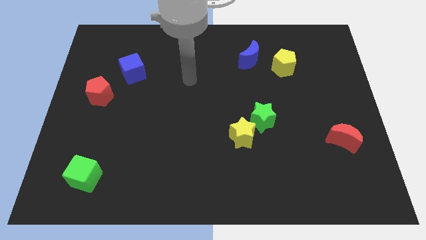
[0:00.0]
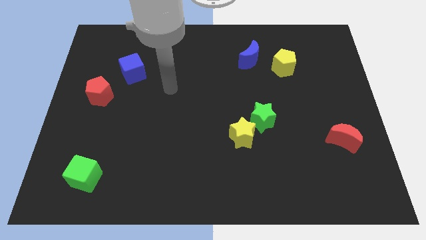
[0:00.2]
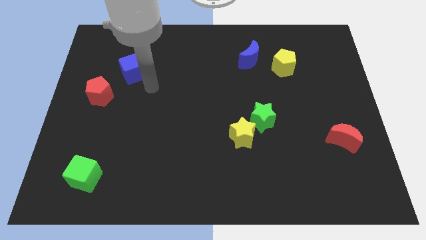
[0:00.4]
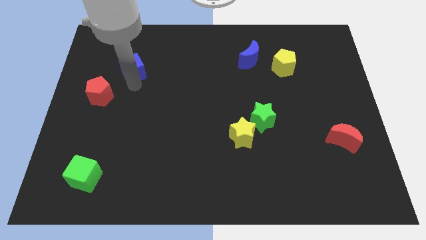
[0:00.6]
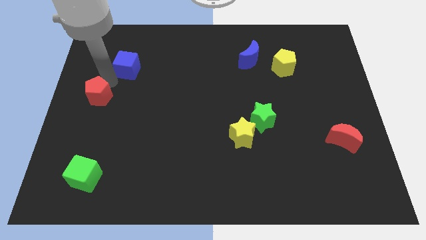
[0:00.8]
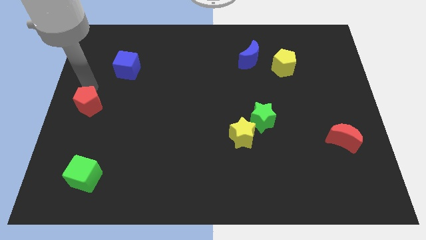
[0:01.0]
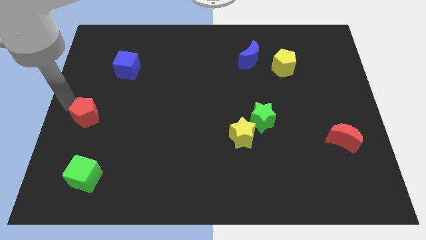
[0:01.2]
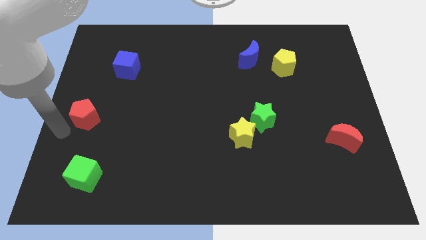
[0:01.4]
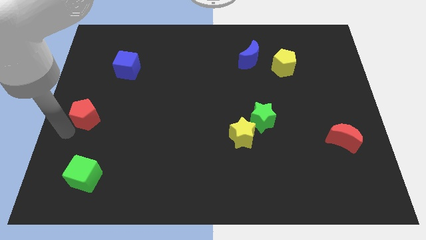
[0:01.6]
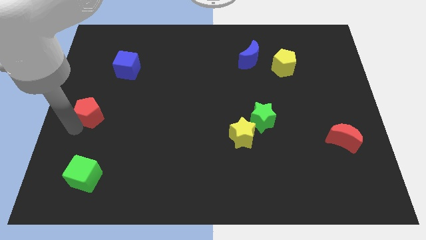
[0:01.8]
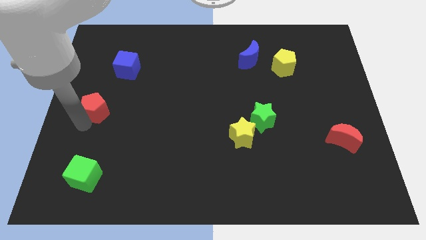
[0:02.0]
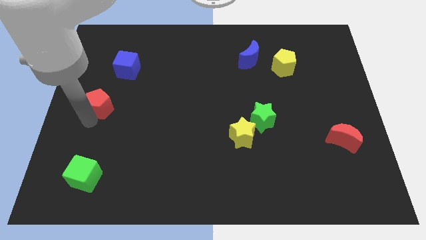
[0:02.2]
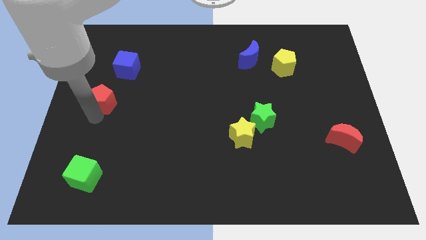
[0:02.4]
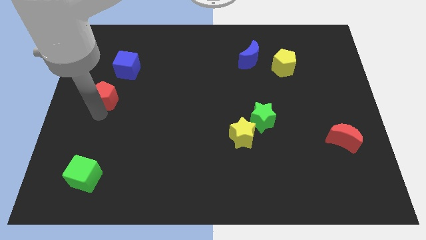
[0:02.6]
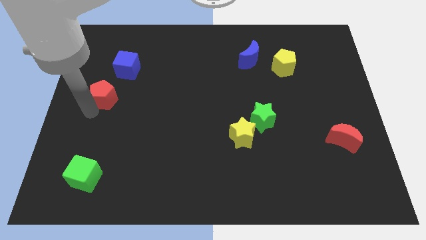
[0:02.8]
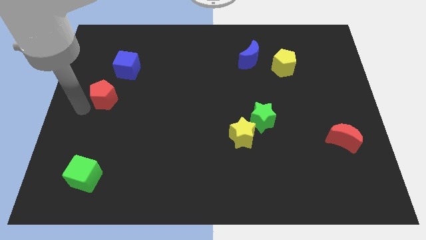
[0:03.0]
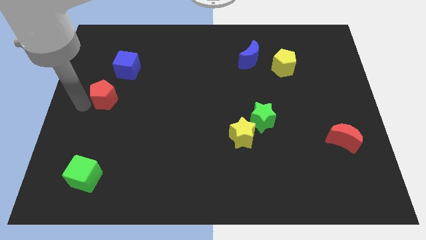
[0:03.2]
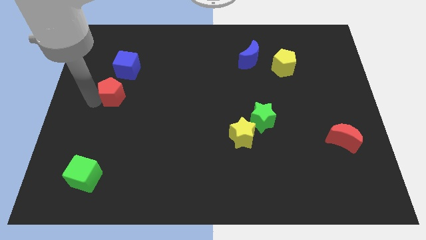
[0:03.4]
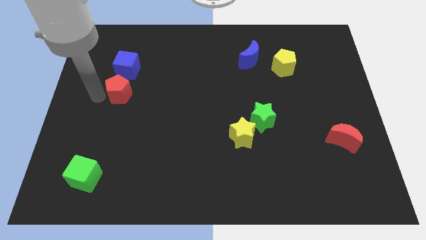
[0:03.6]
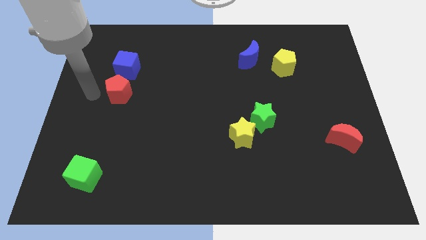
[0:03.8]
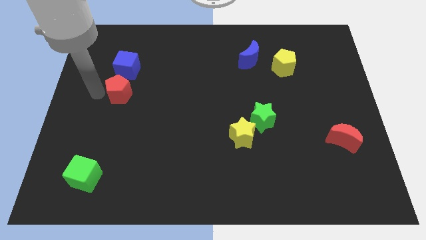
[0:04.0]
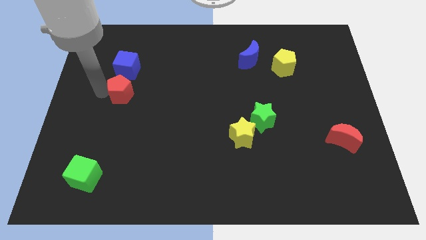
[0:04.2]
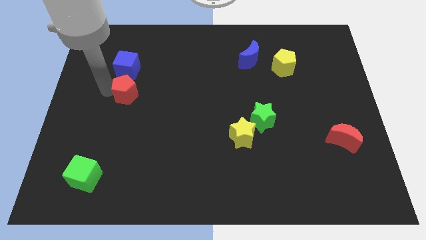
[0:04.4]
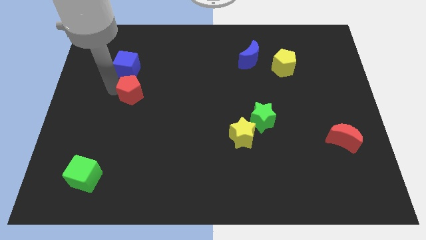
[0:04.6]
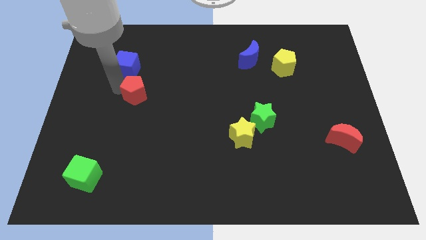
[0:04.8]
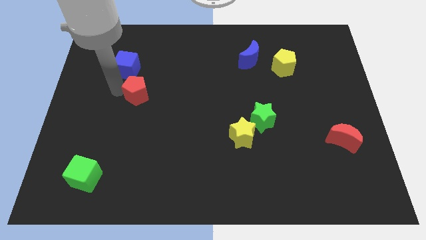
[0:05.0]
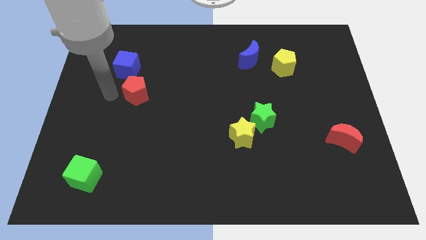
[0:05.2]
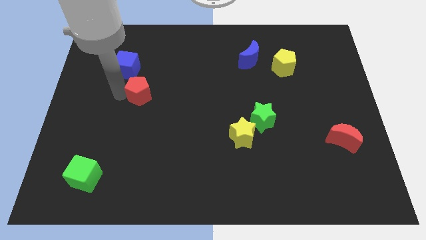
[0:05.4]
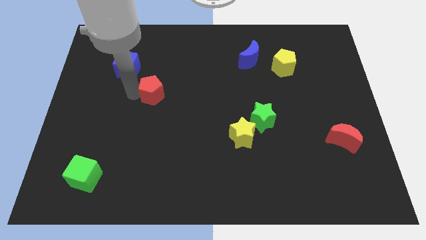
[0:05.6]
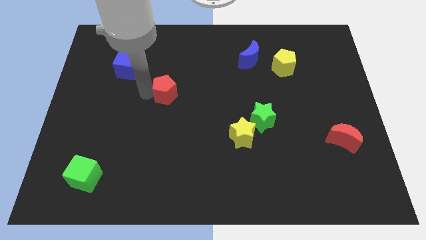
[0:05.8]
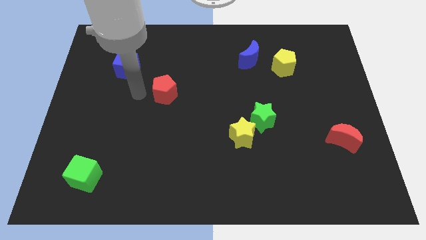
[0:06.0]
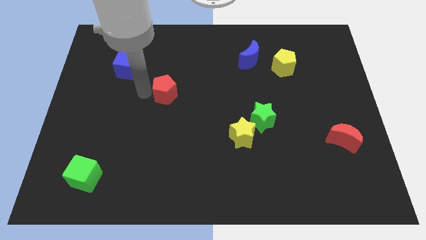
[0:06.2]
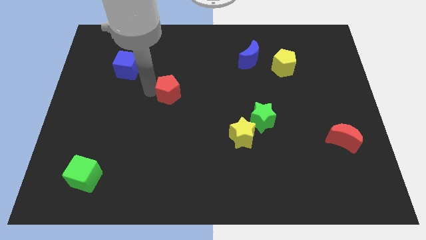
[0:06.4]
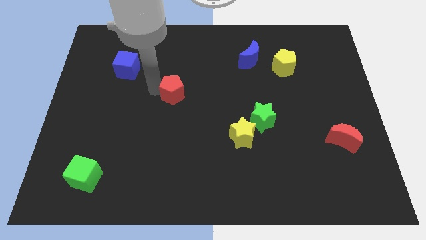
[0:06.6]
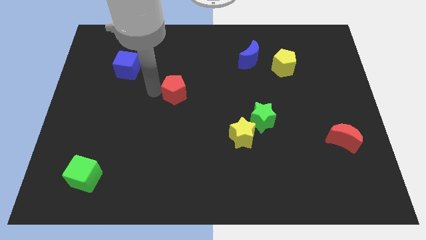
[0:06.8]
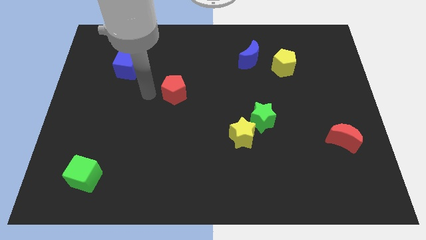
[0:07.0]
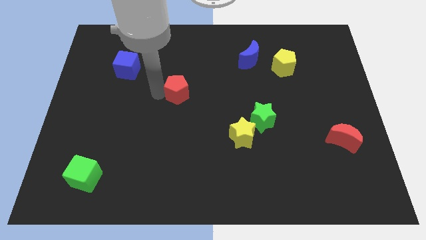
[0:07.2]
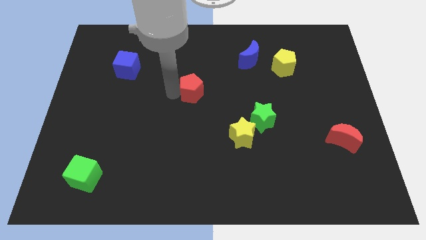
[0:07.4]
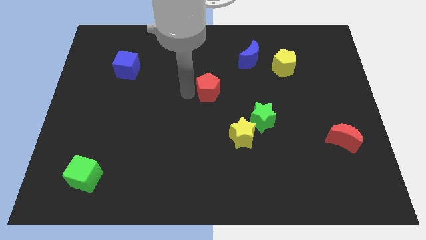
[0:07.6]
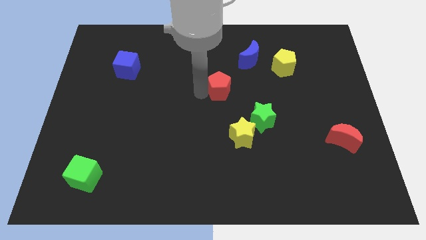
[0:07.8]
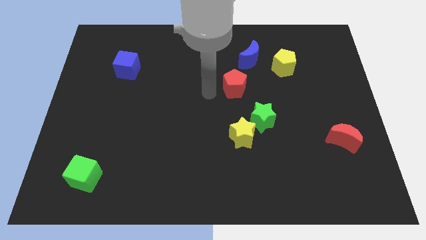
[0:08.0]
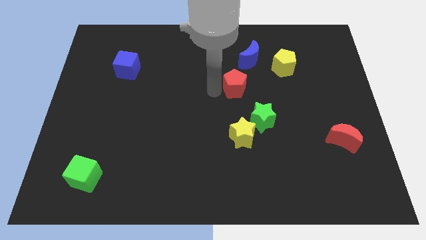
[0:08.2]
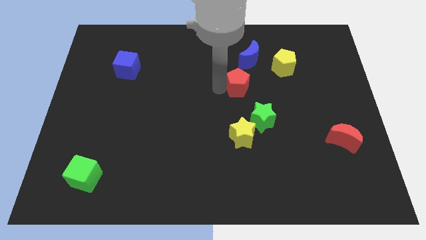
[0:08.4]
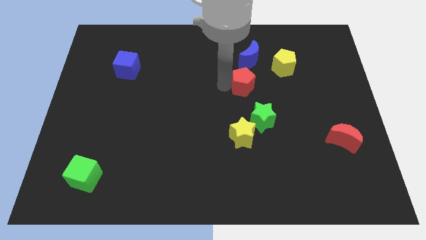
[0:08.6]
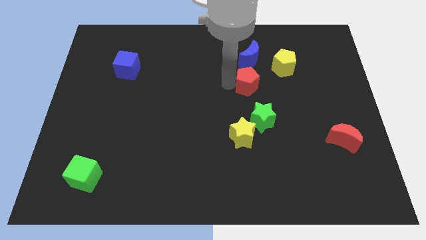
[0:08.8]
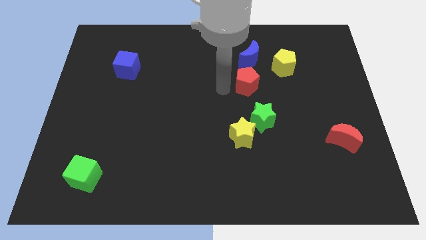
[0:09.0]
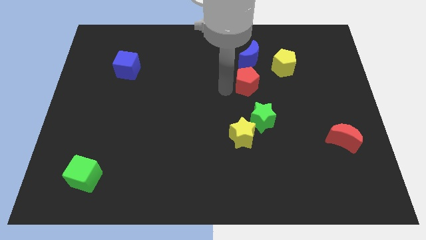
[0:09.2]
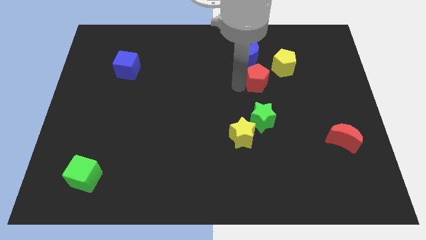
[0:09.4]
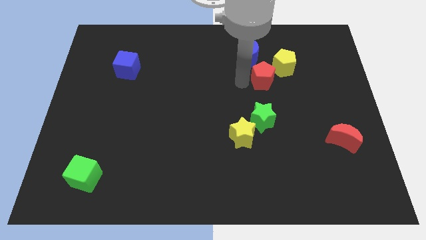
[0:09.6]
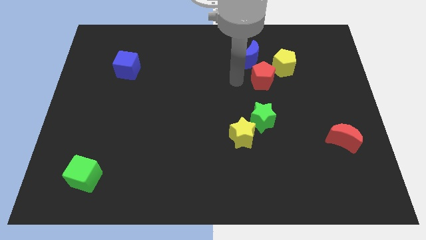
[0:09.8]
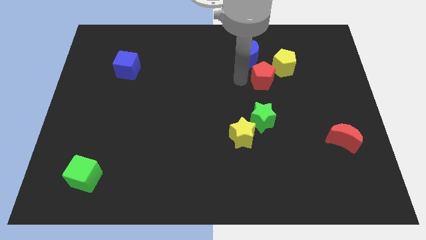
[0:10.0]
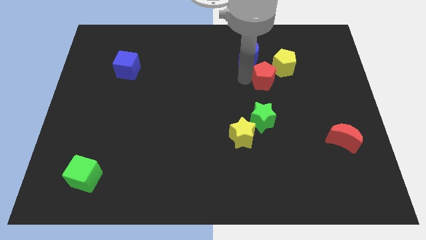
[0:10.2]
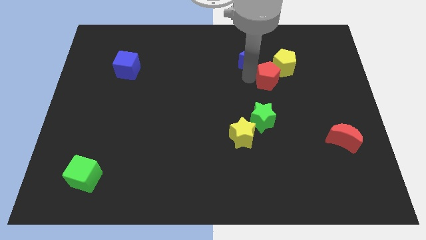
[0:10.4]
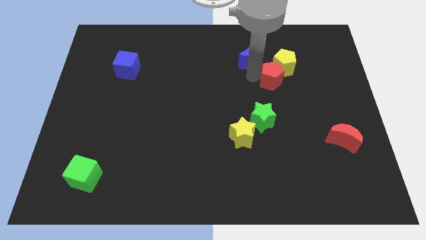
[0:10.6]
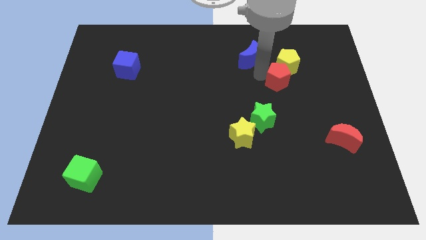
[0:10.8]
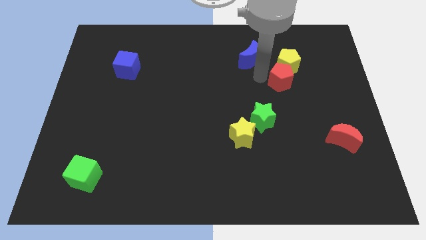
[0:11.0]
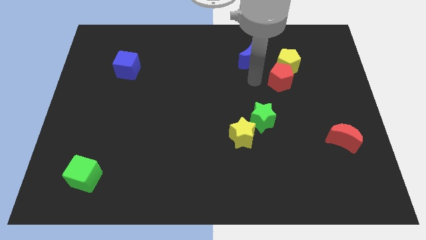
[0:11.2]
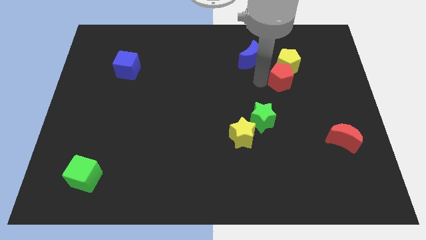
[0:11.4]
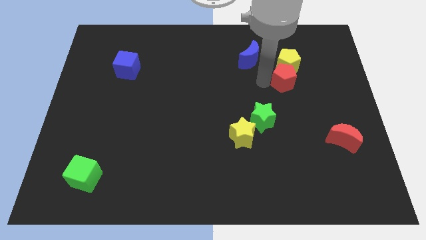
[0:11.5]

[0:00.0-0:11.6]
move the red pentagon diagonally down and to the right of the yellow pentagon

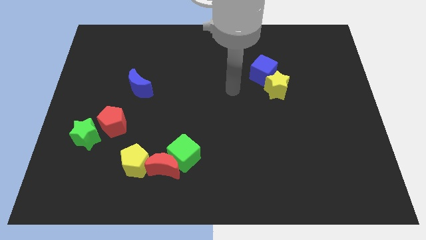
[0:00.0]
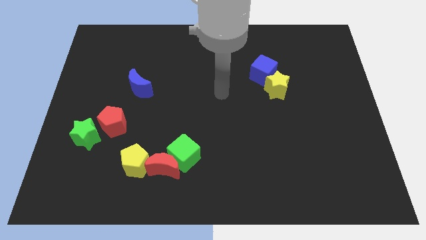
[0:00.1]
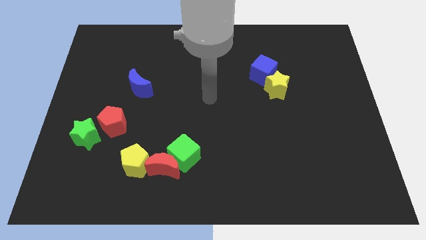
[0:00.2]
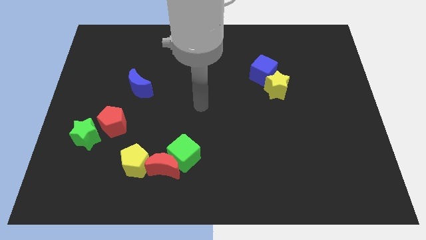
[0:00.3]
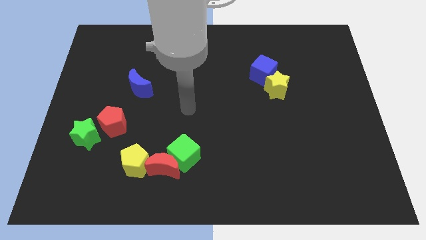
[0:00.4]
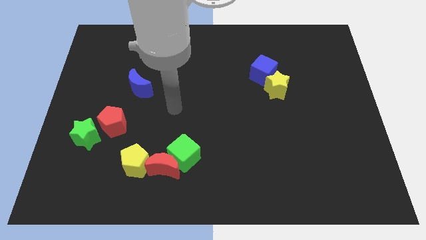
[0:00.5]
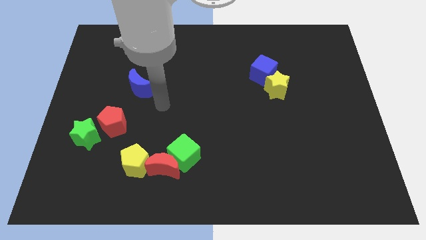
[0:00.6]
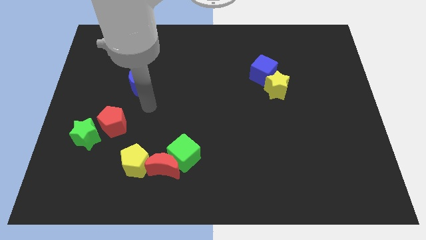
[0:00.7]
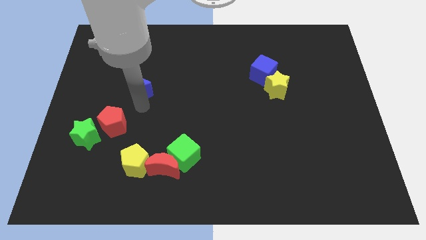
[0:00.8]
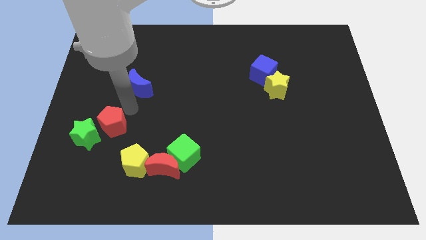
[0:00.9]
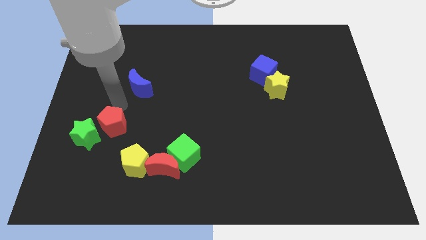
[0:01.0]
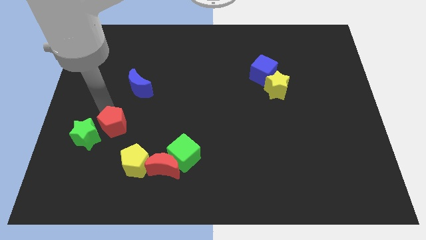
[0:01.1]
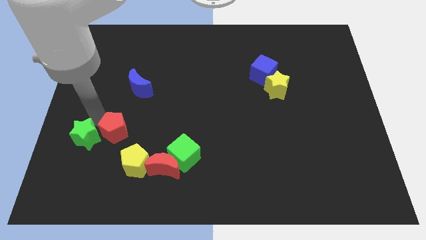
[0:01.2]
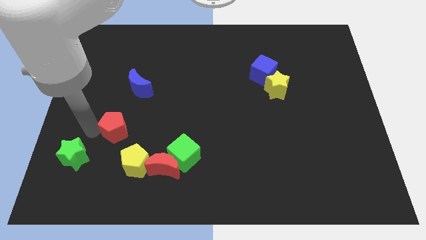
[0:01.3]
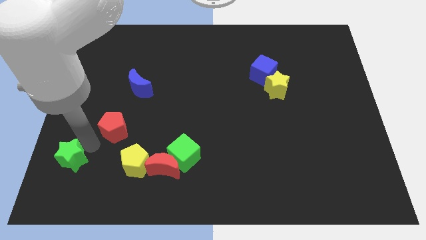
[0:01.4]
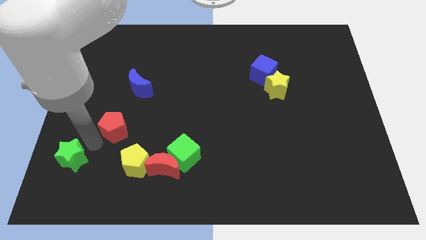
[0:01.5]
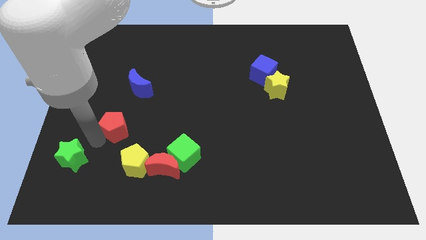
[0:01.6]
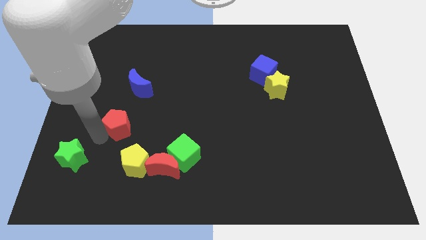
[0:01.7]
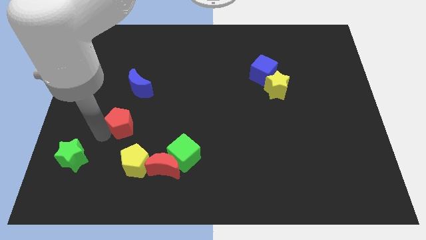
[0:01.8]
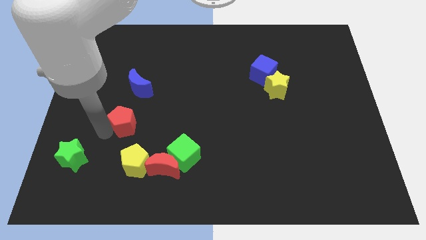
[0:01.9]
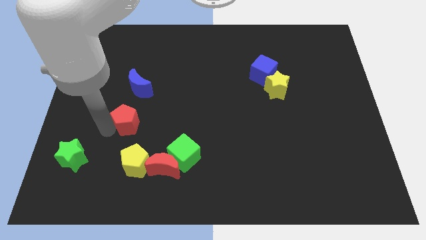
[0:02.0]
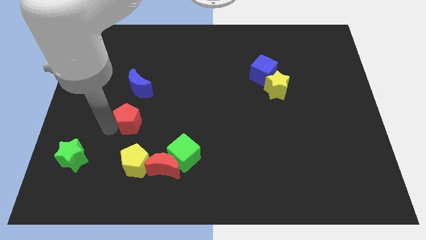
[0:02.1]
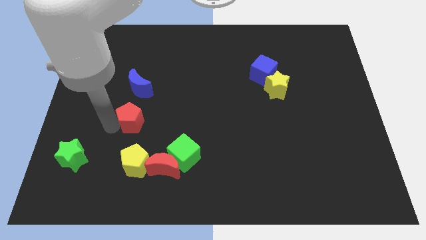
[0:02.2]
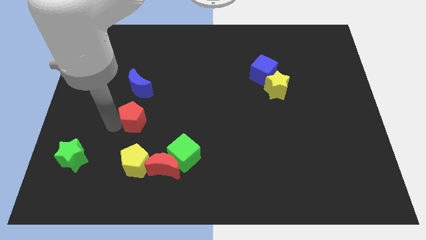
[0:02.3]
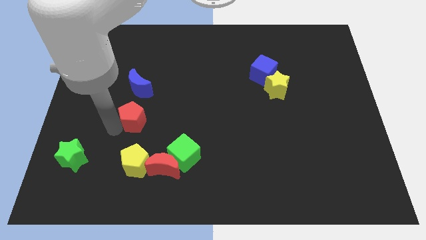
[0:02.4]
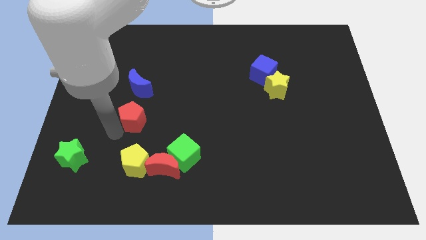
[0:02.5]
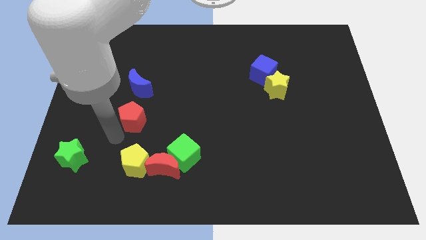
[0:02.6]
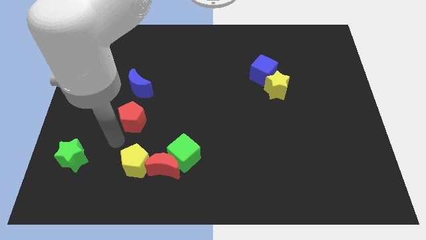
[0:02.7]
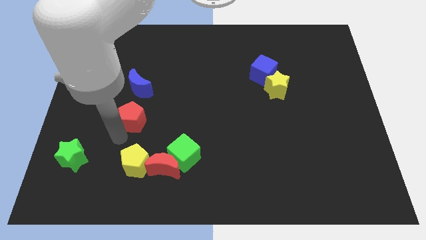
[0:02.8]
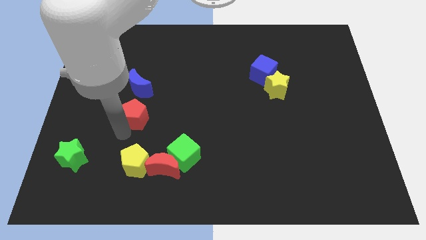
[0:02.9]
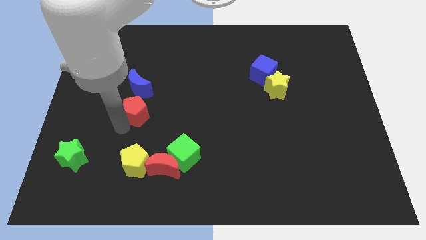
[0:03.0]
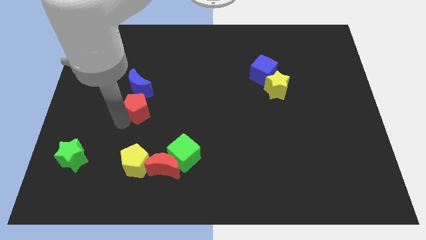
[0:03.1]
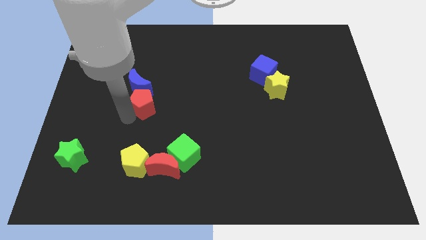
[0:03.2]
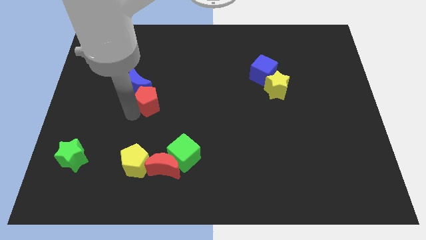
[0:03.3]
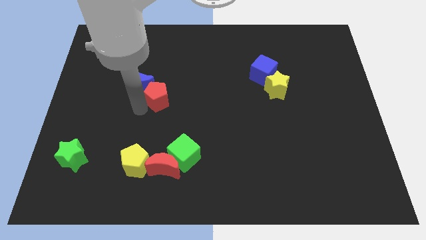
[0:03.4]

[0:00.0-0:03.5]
push the red pentagon to the right of the blue moon
